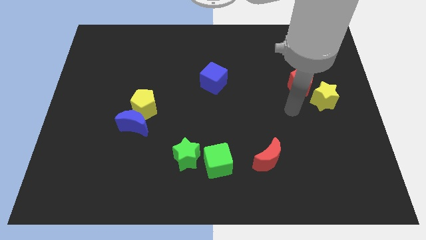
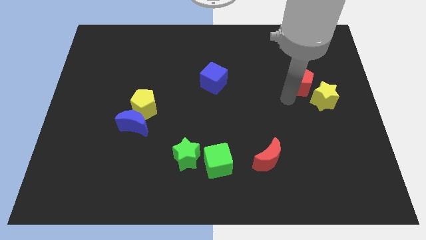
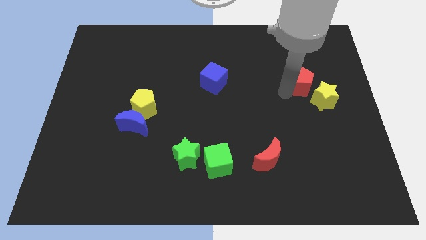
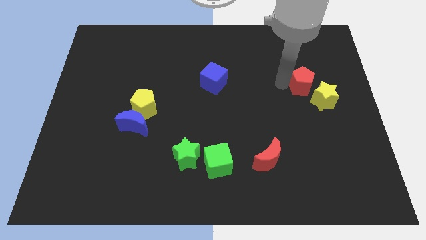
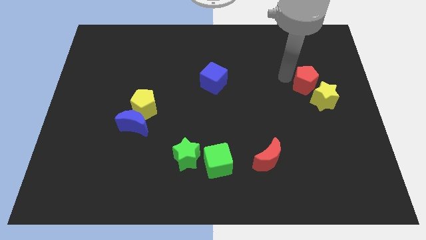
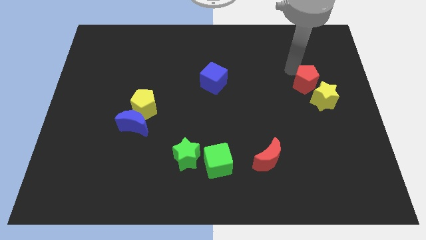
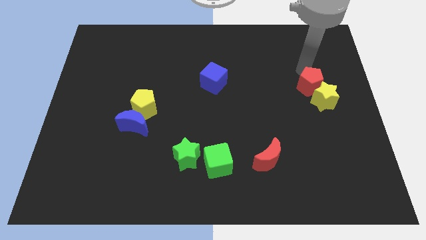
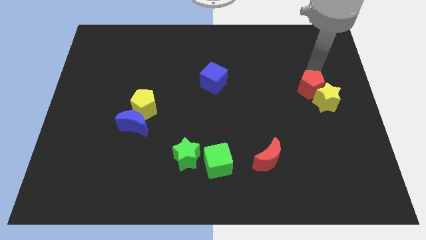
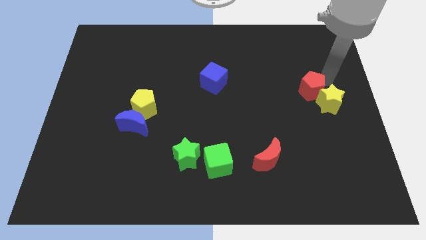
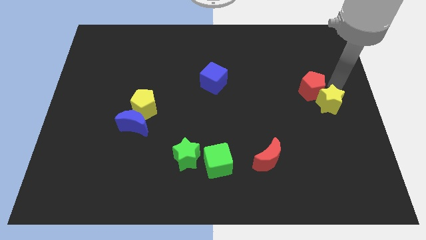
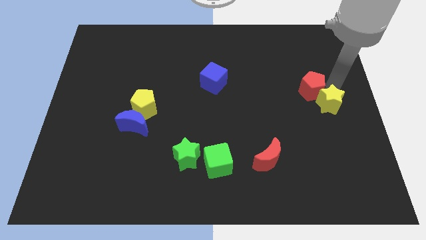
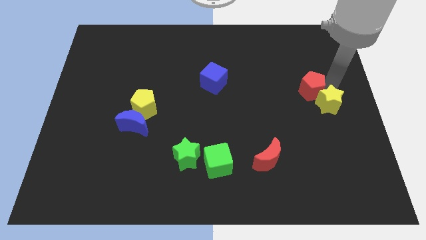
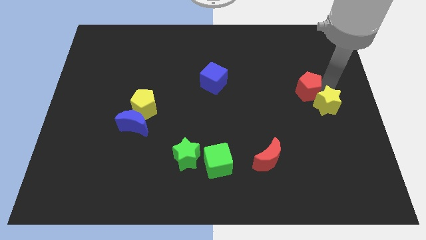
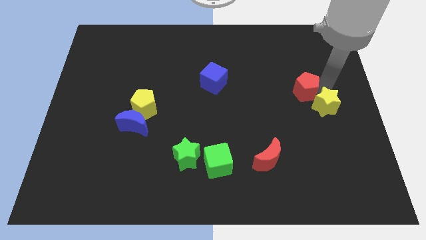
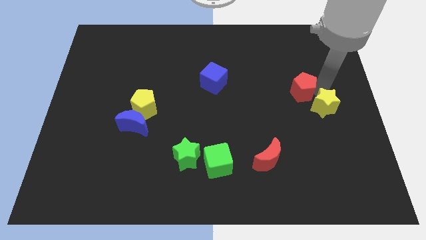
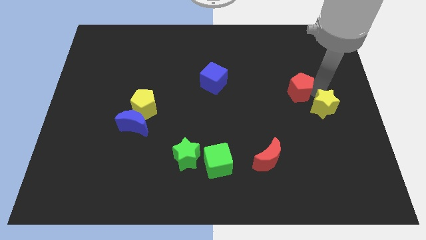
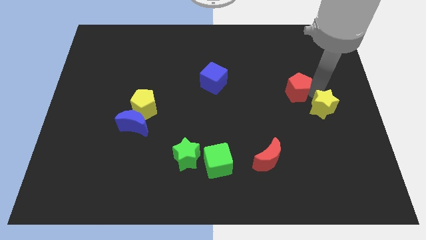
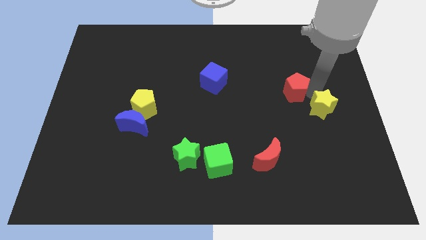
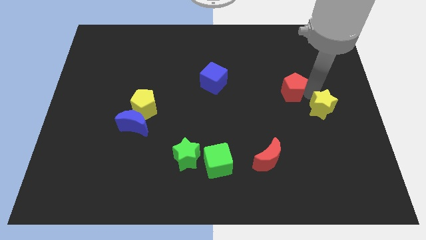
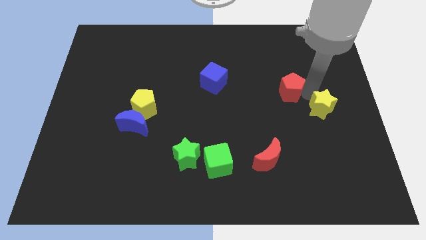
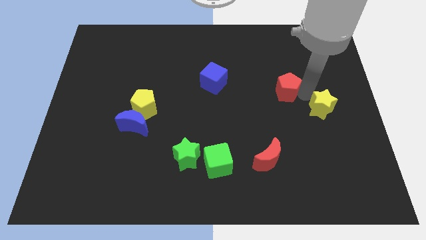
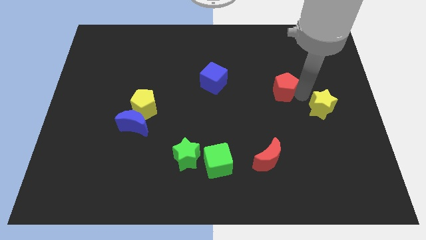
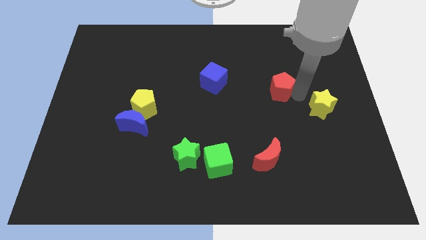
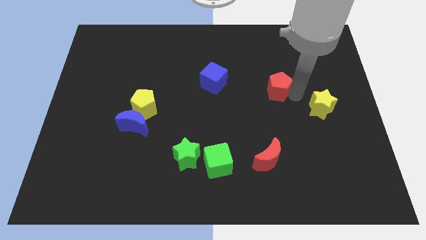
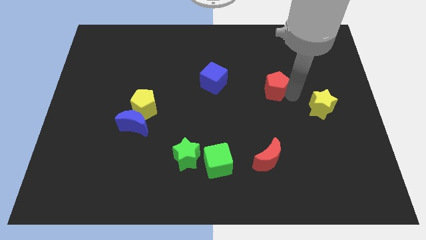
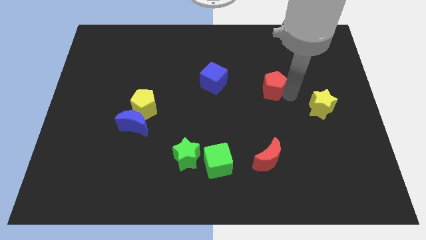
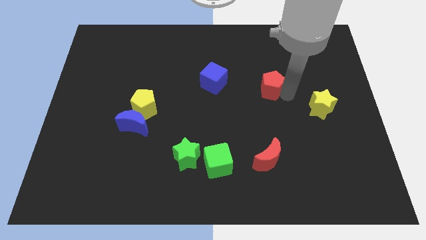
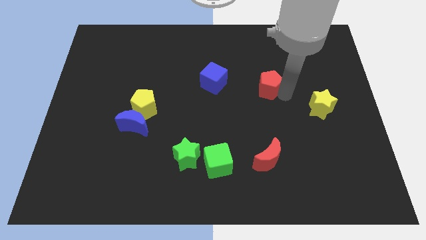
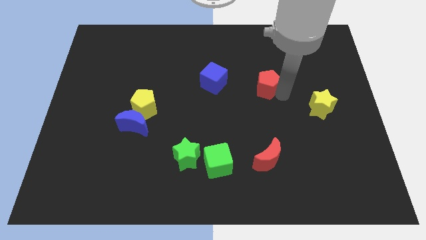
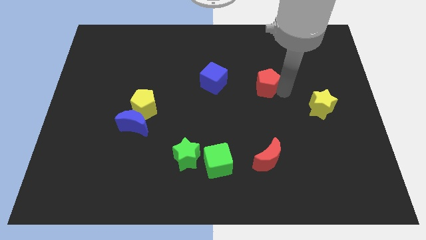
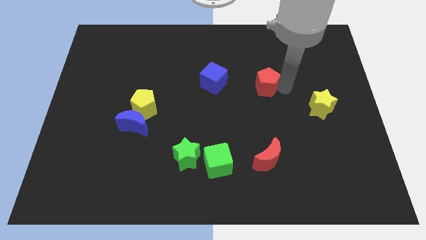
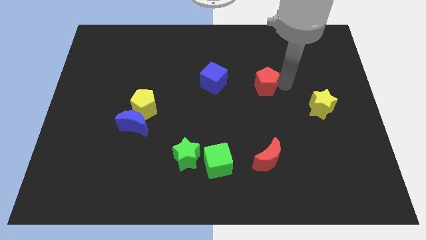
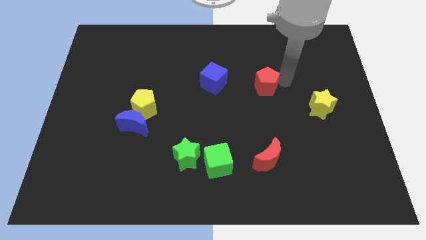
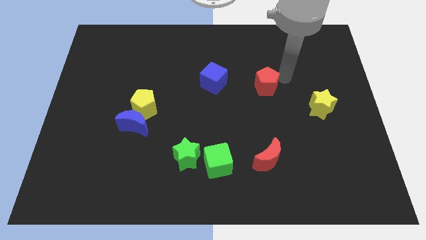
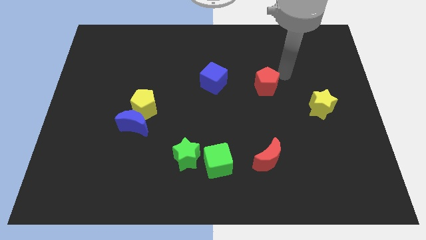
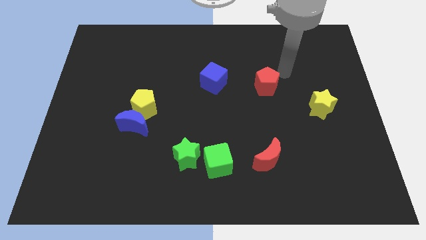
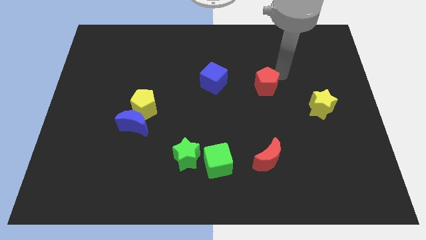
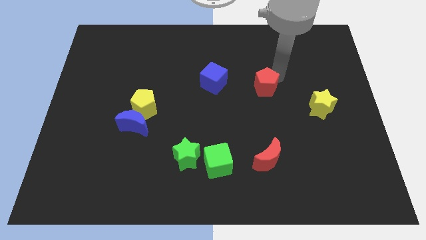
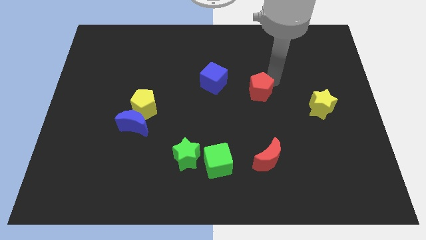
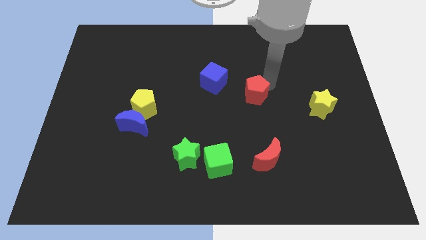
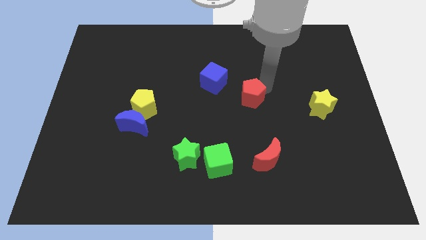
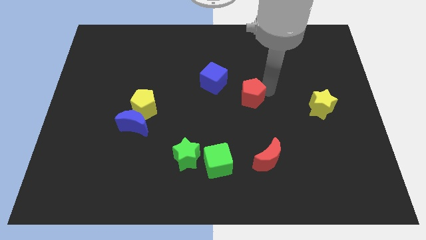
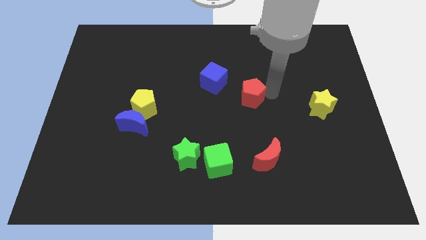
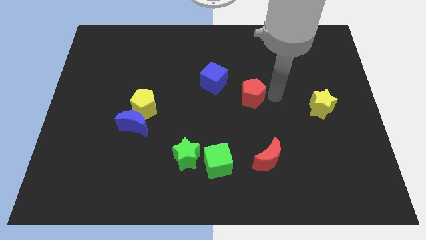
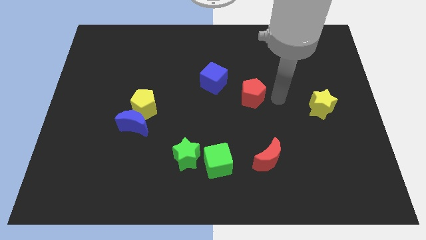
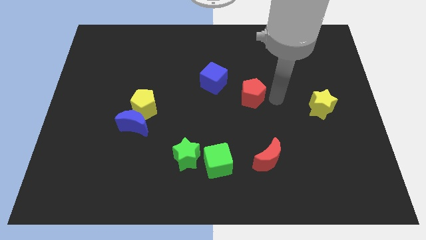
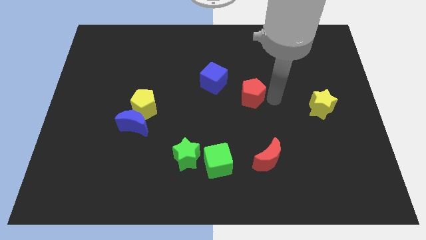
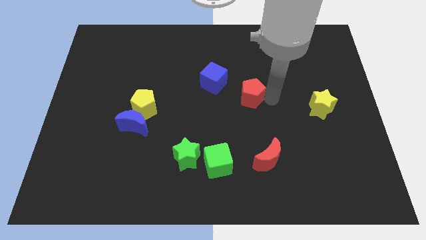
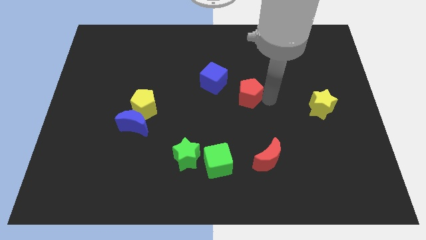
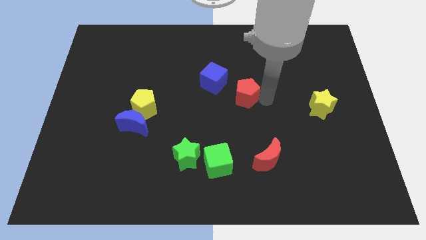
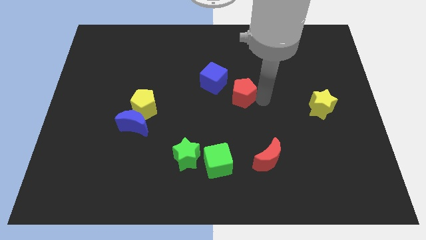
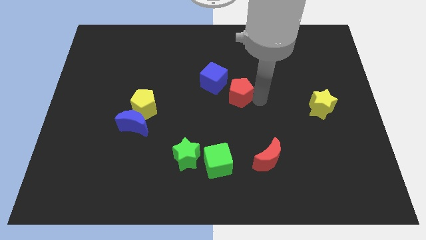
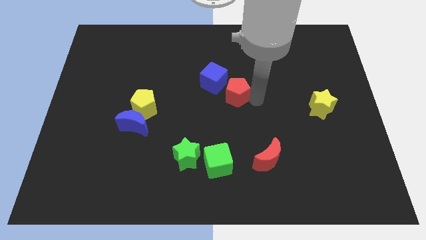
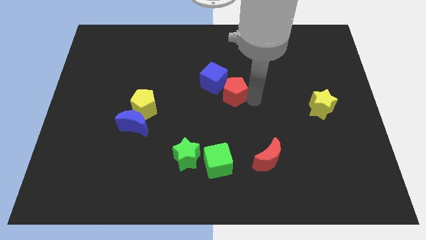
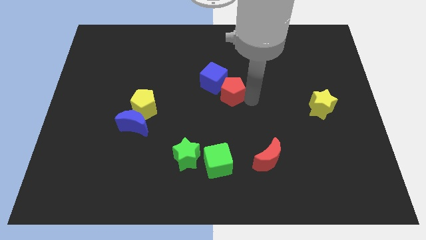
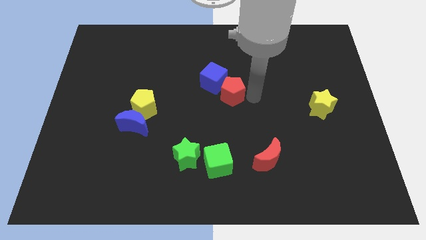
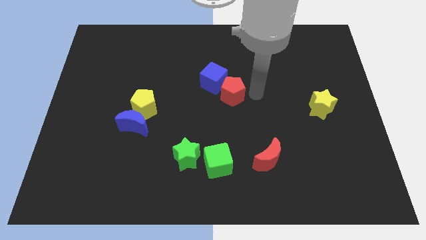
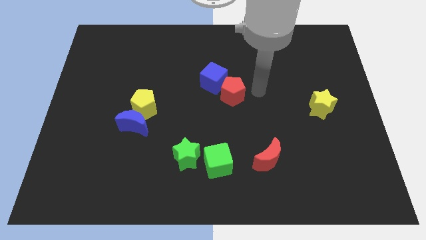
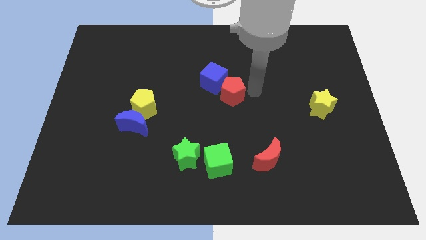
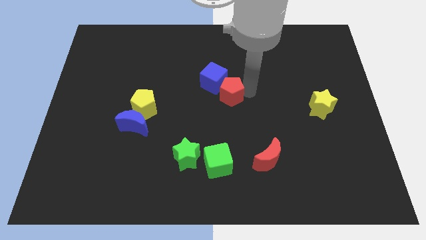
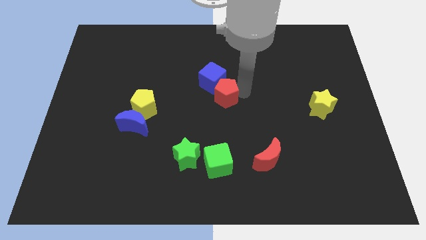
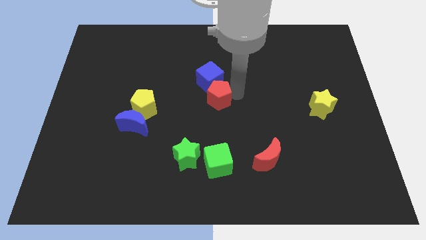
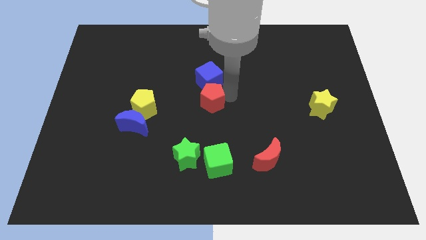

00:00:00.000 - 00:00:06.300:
push the red pentagon to the left

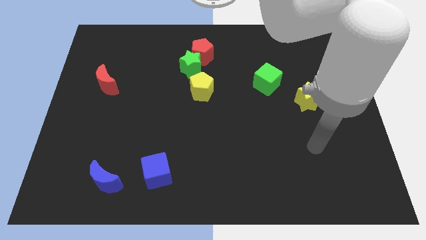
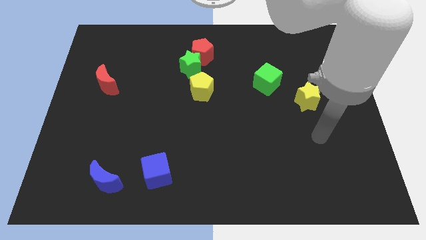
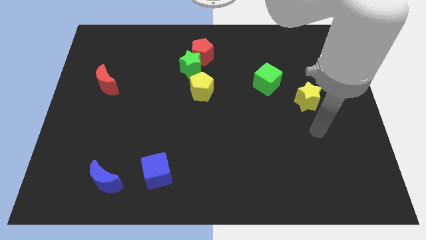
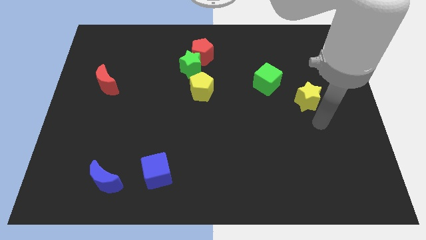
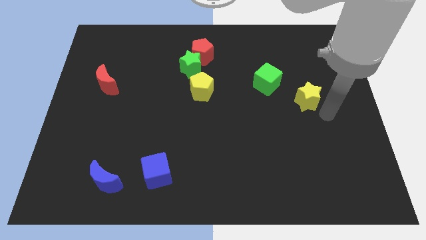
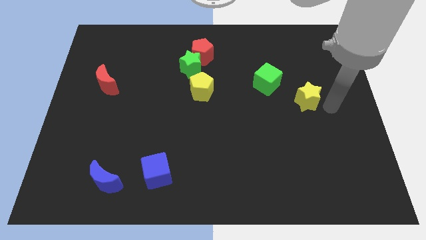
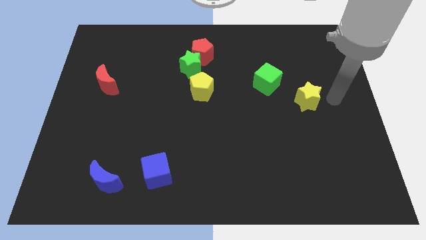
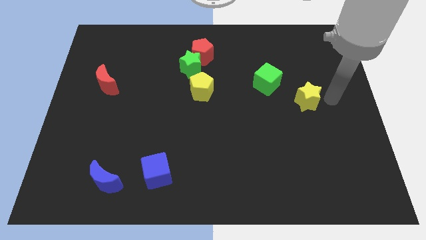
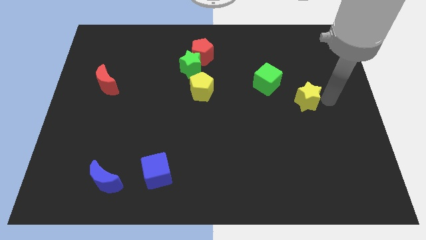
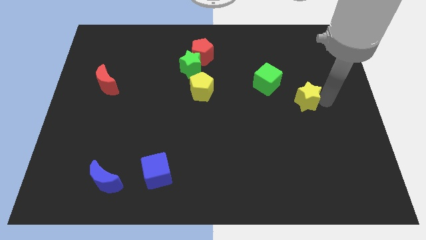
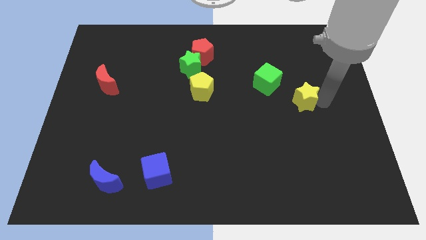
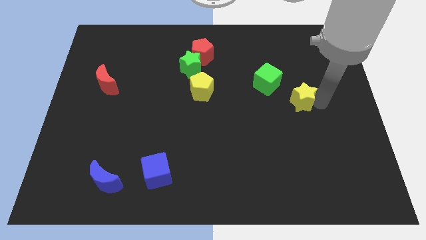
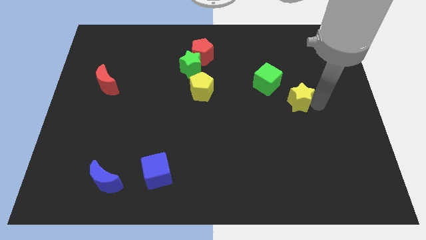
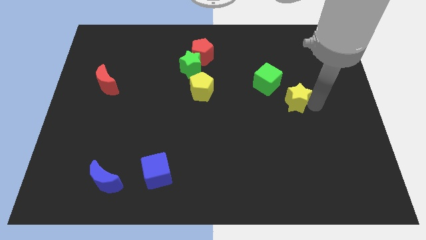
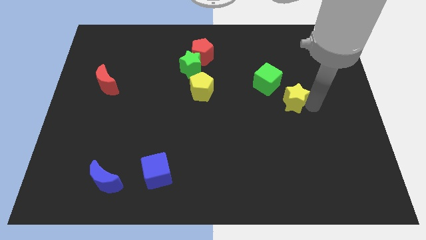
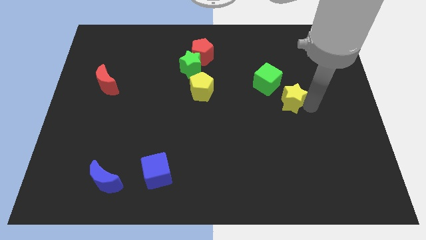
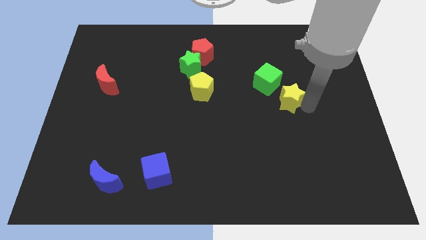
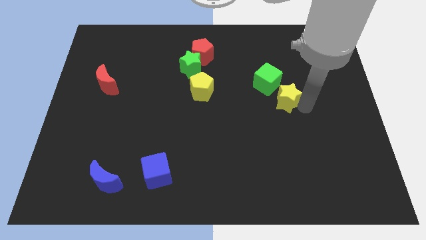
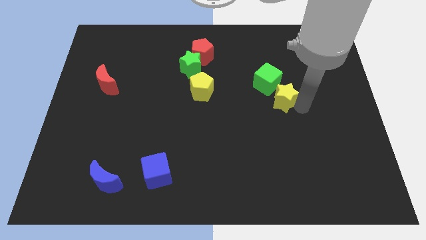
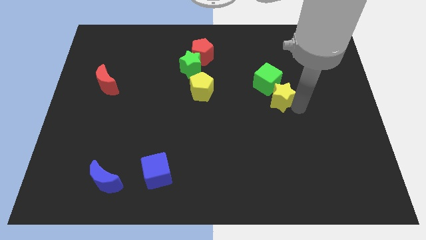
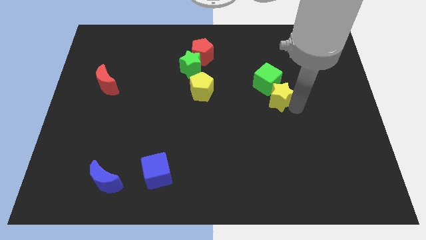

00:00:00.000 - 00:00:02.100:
move the yellow star left slightly
